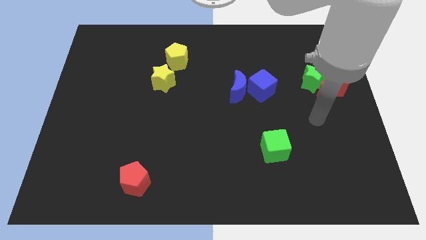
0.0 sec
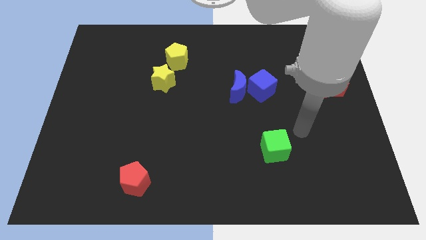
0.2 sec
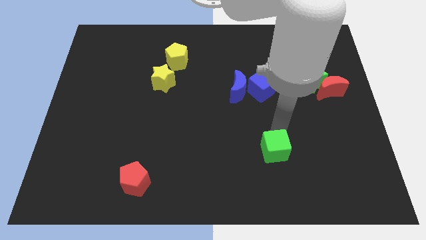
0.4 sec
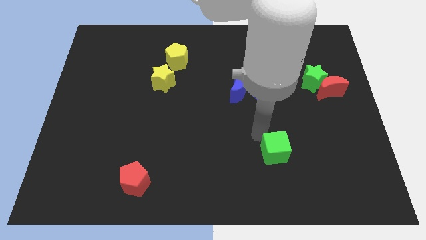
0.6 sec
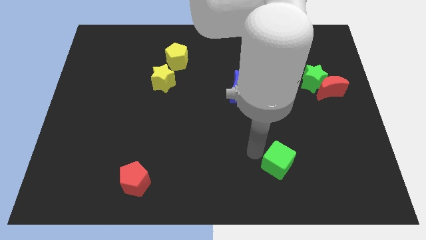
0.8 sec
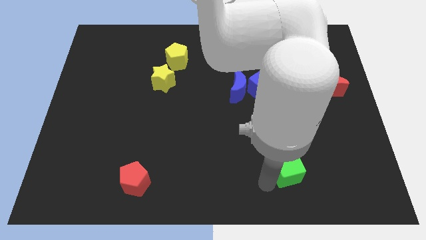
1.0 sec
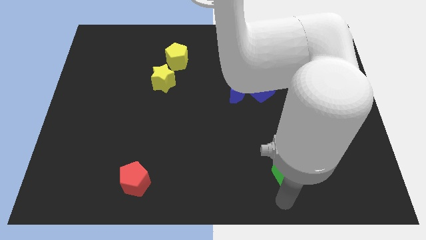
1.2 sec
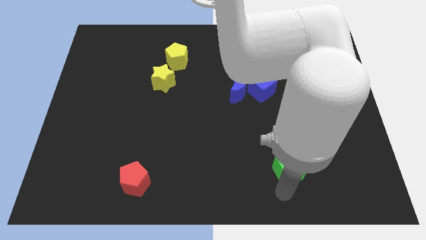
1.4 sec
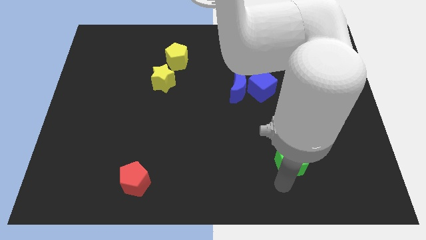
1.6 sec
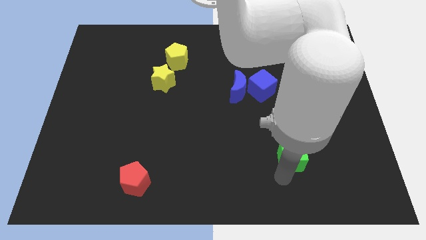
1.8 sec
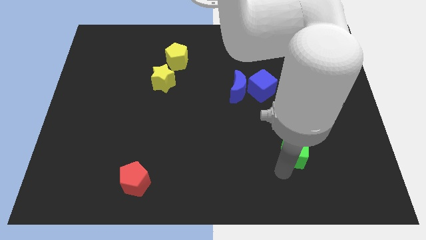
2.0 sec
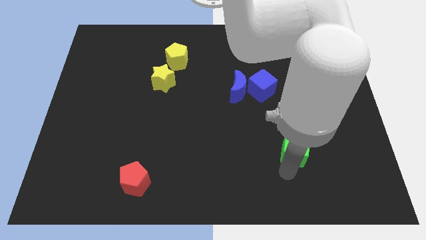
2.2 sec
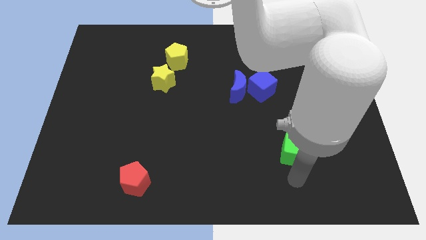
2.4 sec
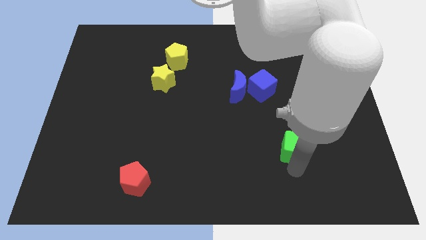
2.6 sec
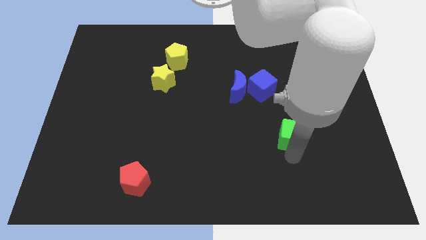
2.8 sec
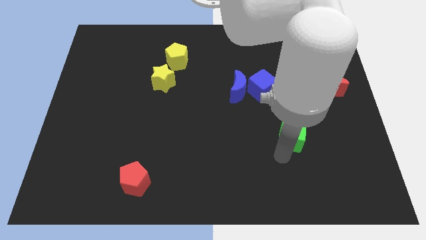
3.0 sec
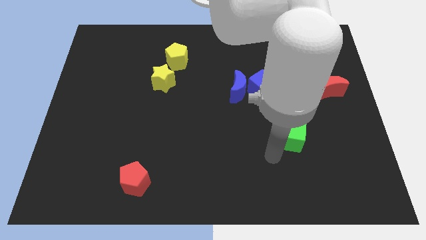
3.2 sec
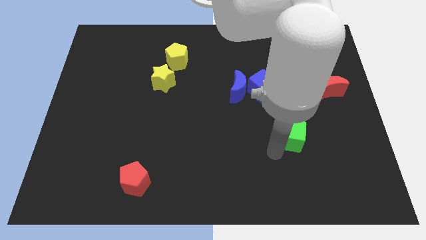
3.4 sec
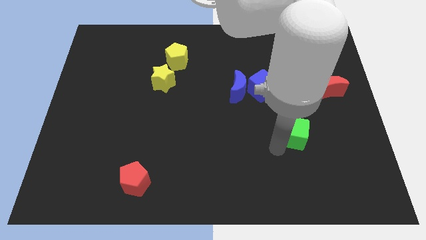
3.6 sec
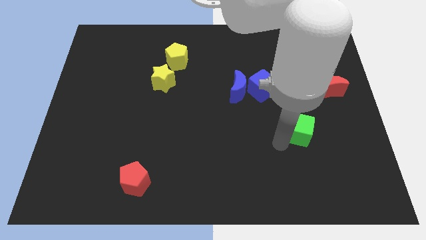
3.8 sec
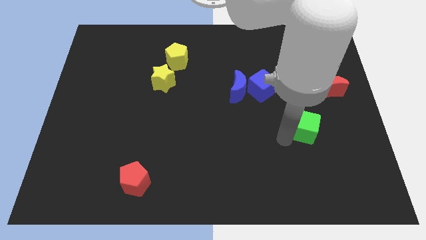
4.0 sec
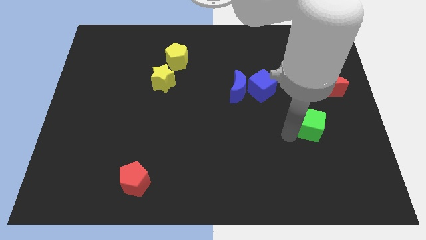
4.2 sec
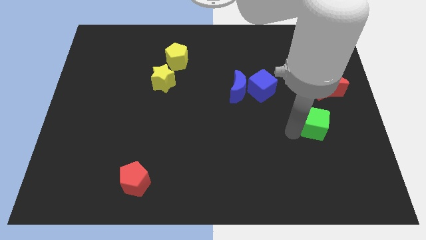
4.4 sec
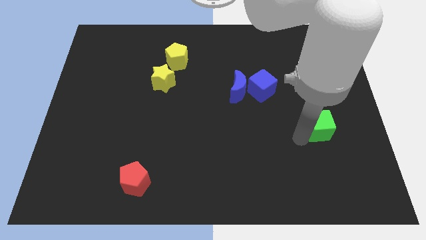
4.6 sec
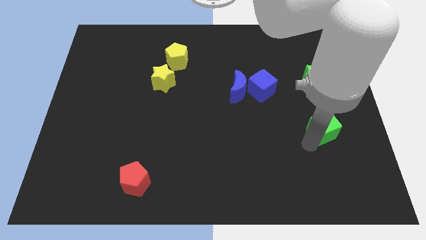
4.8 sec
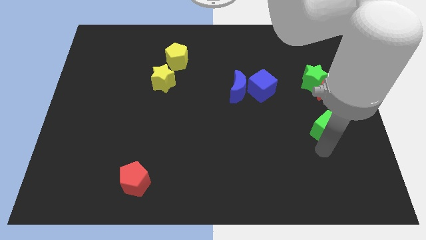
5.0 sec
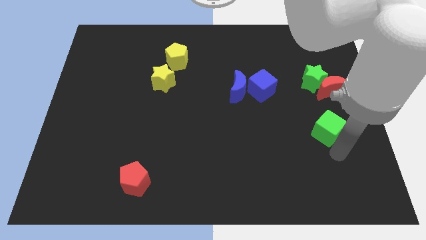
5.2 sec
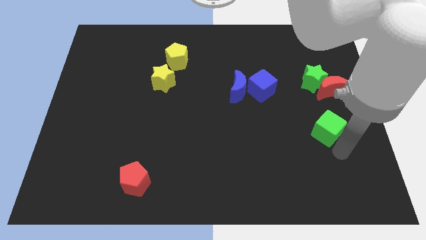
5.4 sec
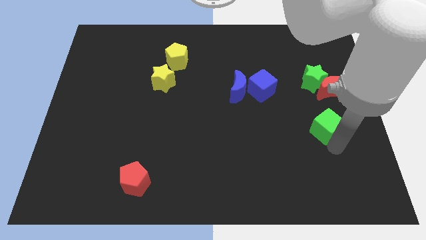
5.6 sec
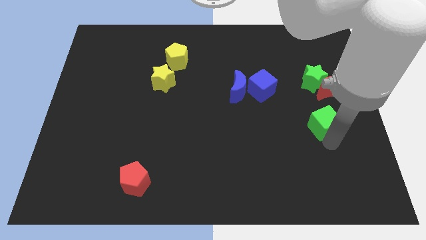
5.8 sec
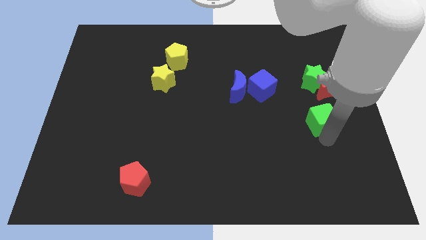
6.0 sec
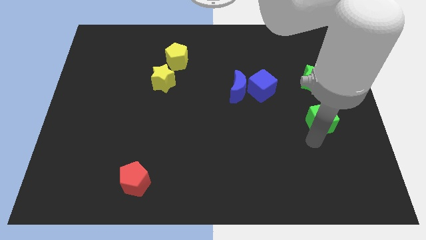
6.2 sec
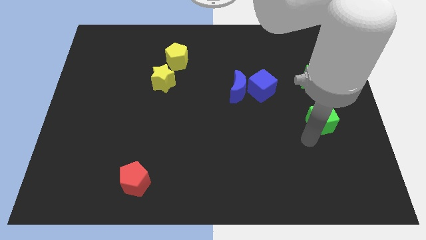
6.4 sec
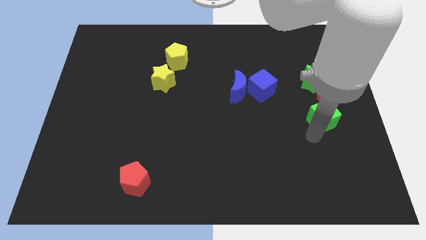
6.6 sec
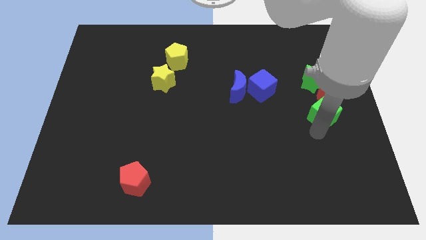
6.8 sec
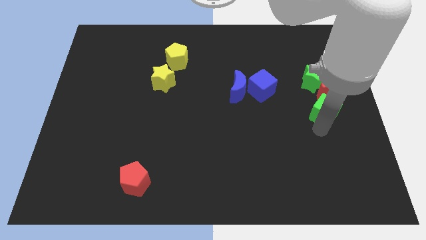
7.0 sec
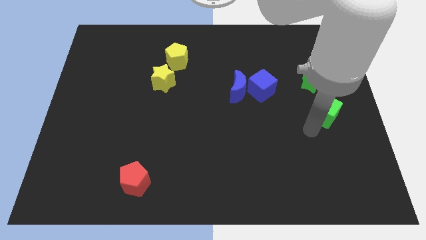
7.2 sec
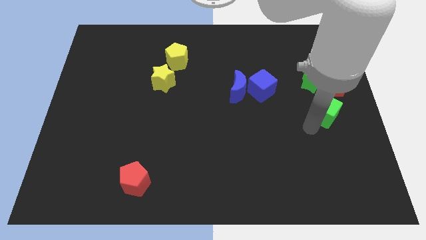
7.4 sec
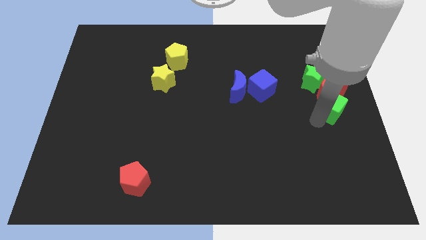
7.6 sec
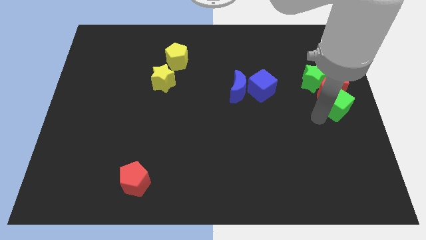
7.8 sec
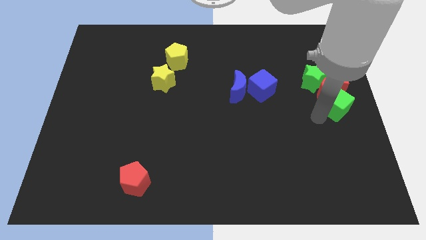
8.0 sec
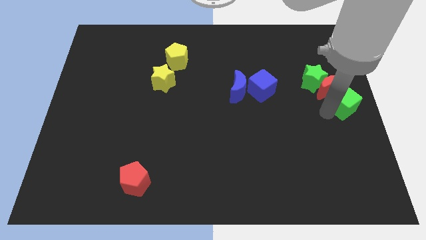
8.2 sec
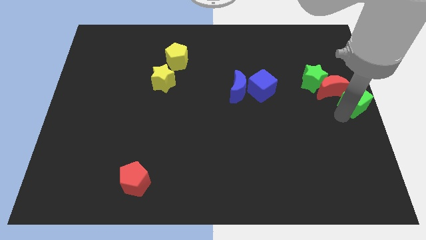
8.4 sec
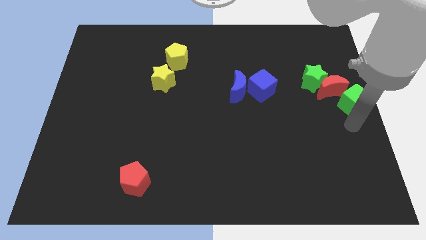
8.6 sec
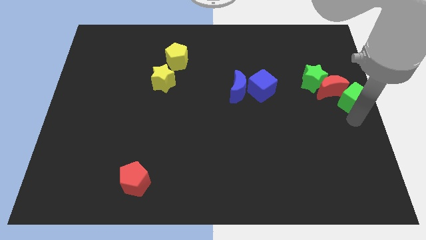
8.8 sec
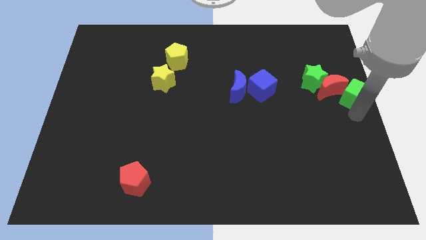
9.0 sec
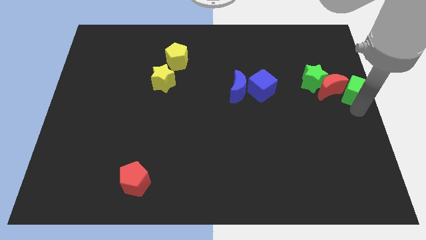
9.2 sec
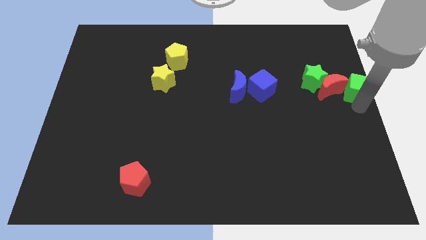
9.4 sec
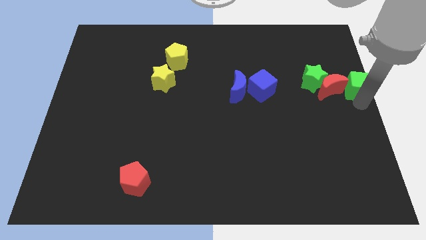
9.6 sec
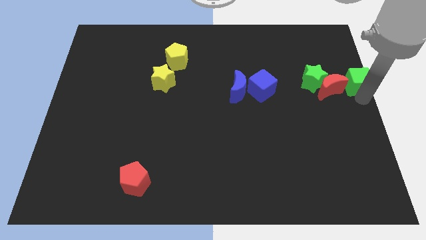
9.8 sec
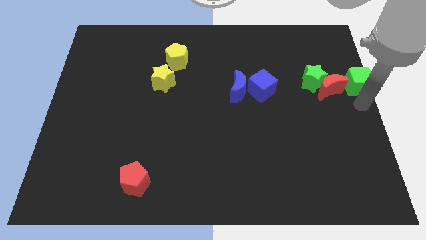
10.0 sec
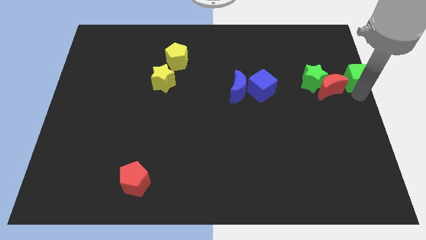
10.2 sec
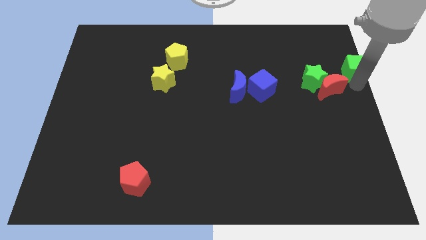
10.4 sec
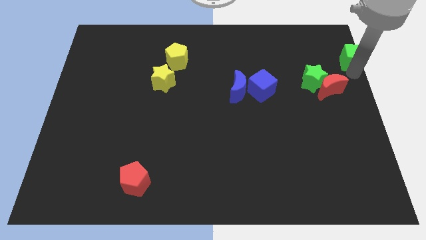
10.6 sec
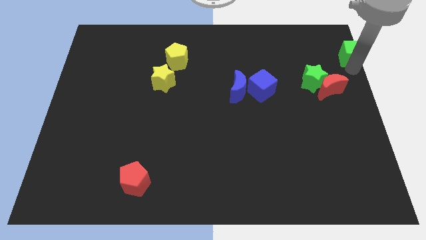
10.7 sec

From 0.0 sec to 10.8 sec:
move the green cube to the top right of the board
